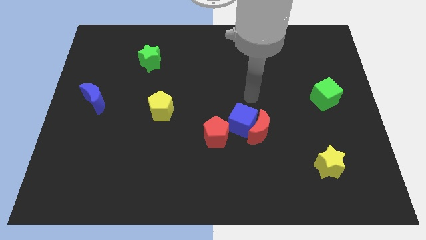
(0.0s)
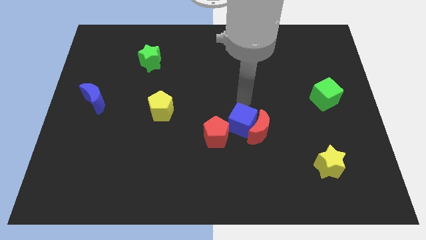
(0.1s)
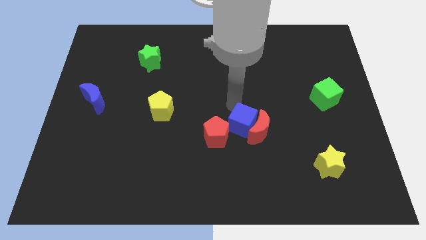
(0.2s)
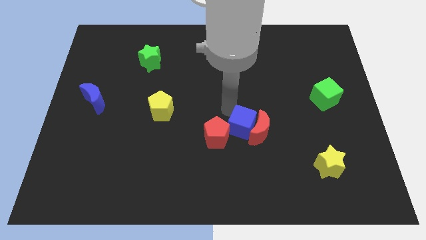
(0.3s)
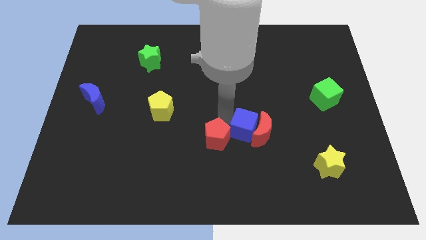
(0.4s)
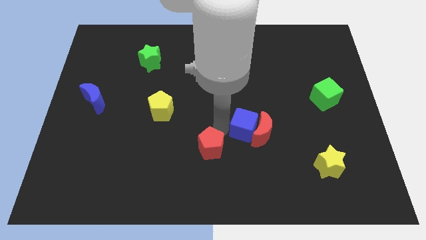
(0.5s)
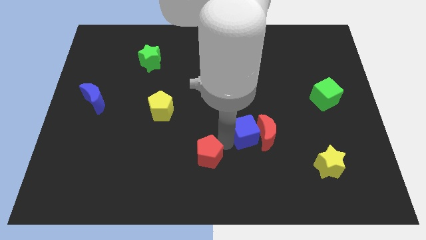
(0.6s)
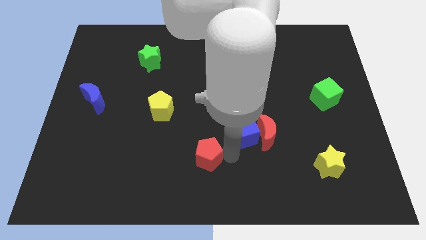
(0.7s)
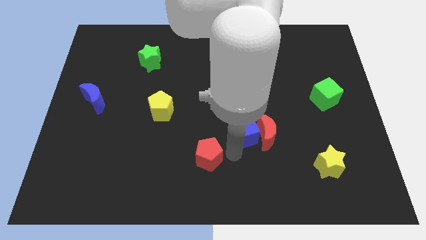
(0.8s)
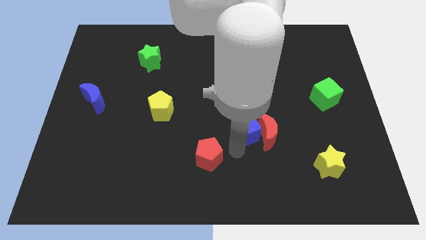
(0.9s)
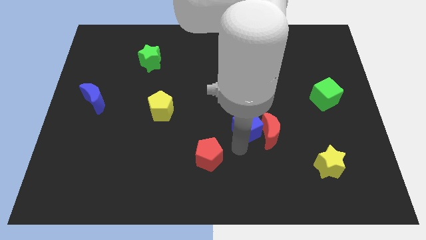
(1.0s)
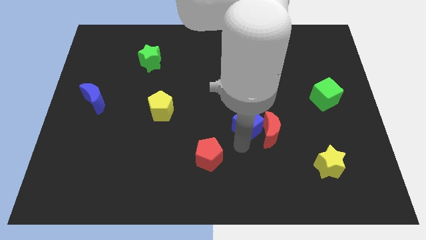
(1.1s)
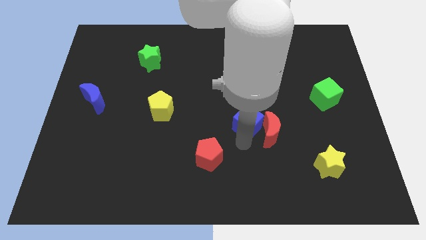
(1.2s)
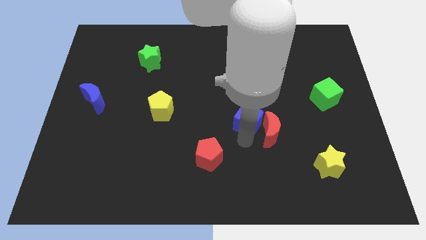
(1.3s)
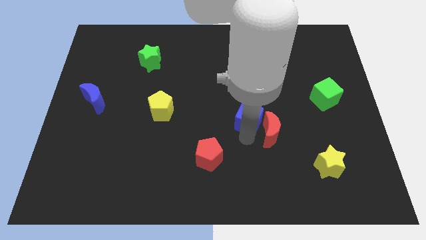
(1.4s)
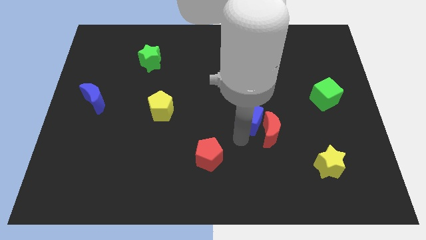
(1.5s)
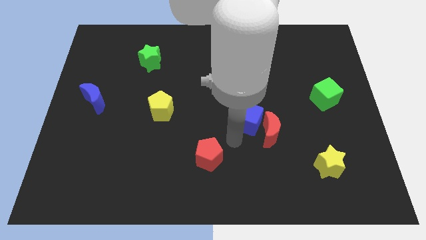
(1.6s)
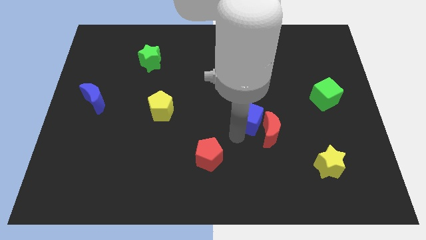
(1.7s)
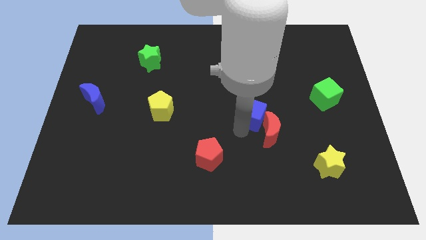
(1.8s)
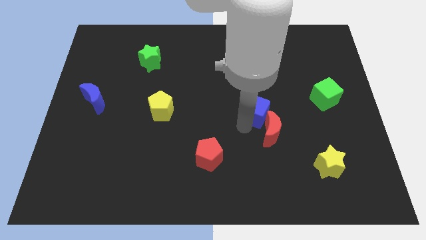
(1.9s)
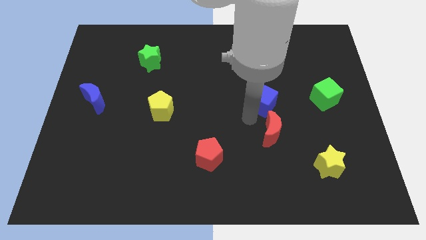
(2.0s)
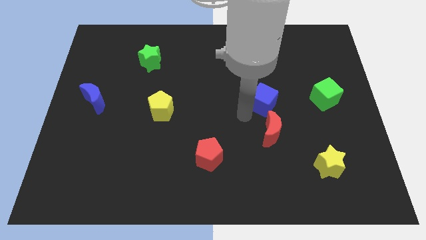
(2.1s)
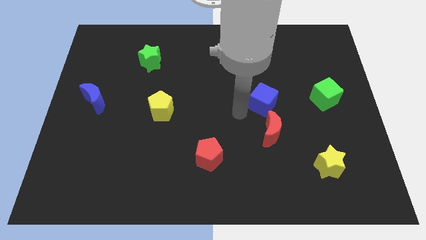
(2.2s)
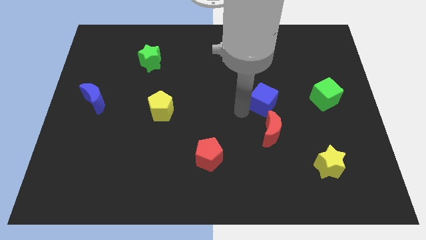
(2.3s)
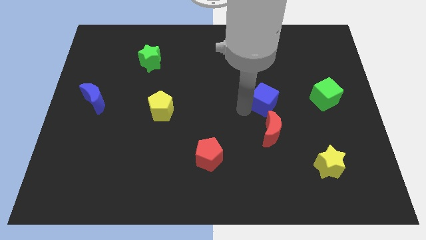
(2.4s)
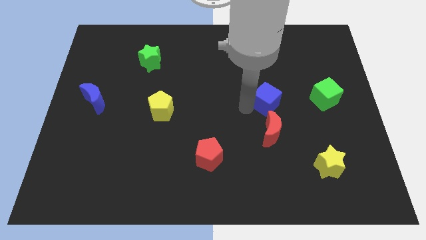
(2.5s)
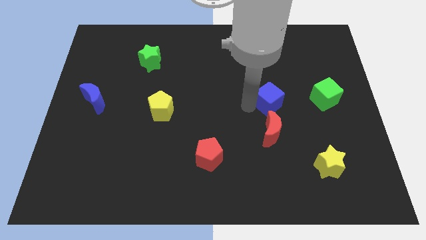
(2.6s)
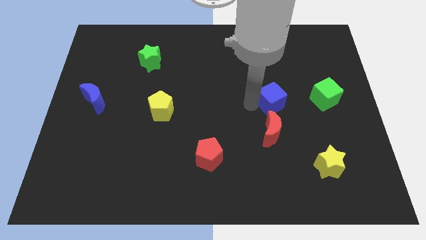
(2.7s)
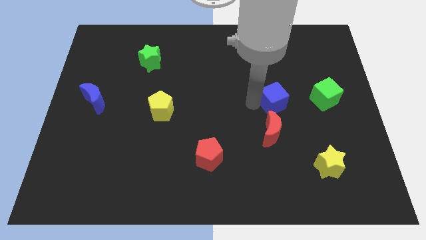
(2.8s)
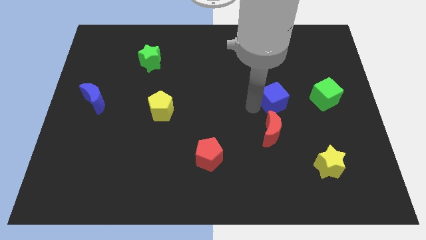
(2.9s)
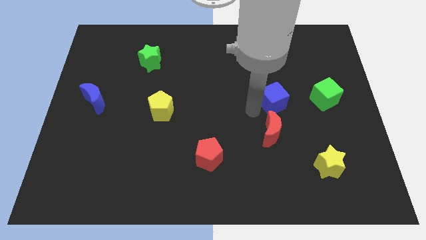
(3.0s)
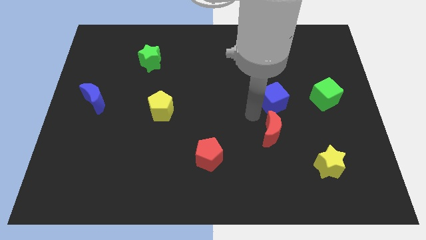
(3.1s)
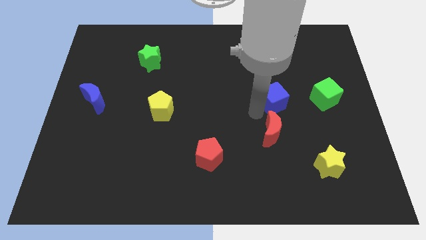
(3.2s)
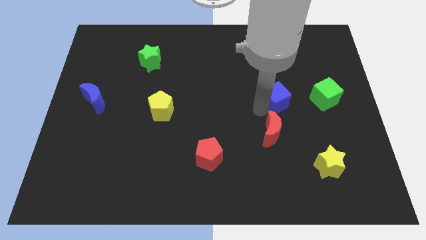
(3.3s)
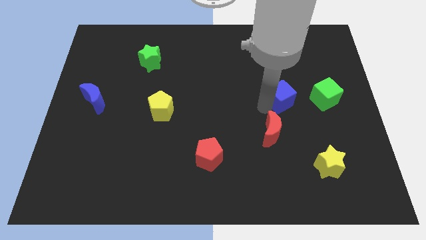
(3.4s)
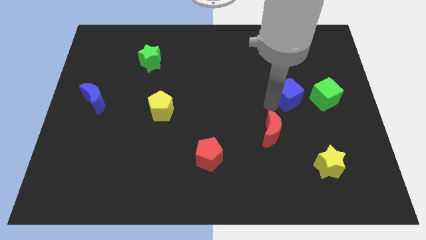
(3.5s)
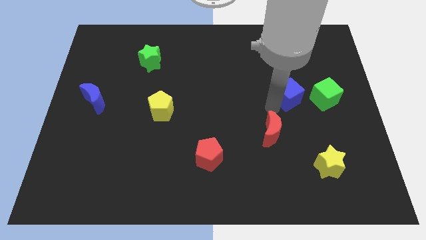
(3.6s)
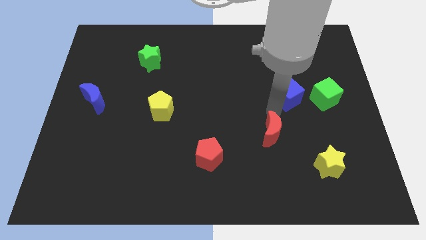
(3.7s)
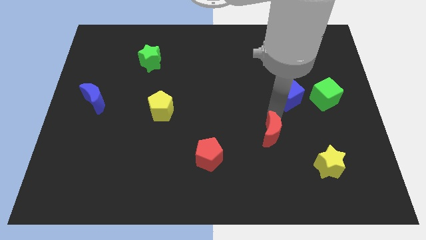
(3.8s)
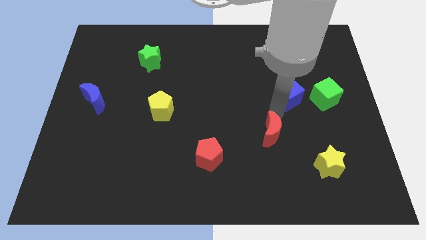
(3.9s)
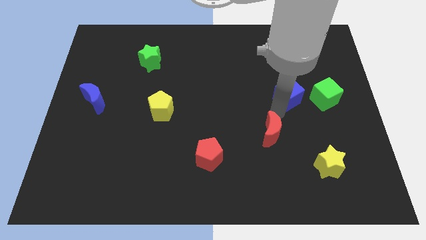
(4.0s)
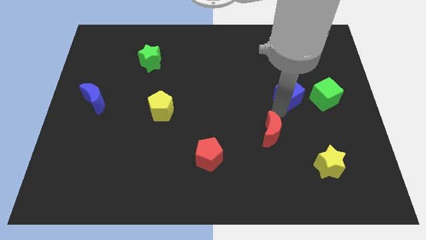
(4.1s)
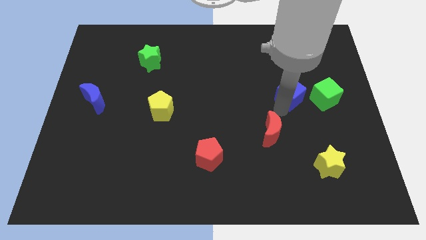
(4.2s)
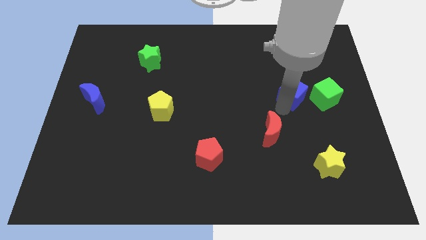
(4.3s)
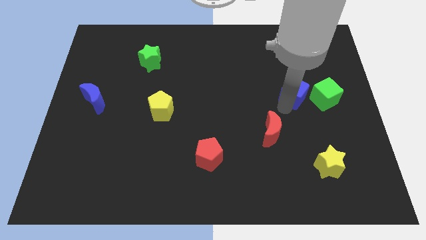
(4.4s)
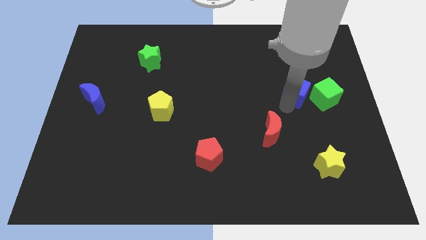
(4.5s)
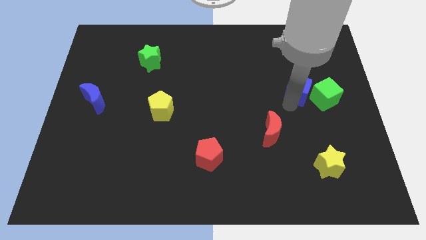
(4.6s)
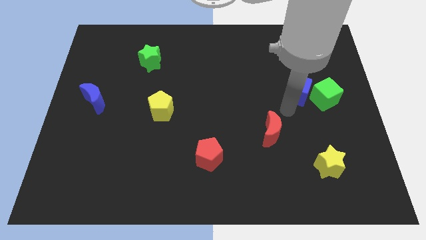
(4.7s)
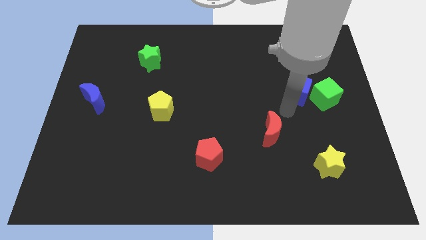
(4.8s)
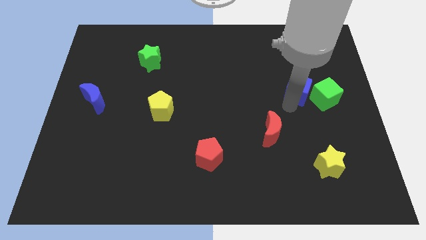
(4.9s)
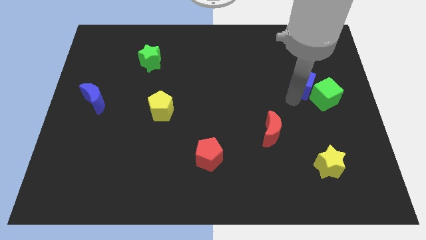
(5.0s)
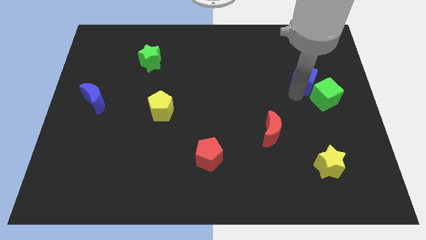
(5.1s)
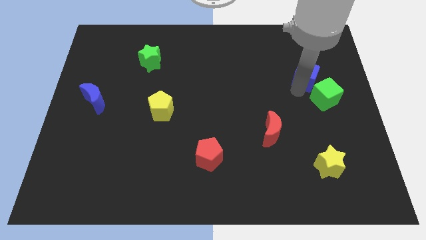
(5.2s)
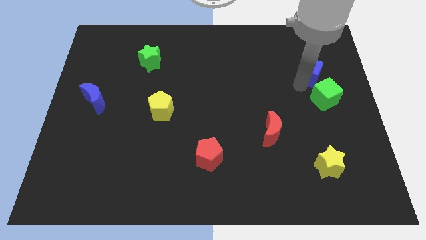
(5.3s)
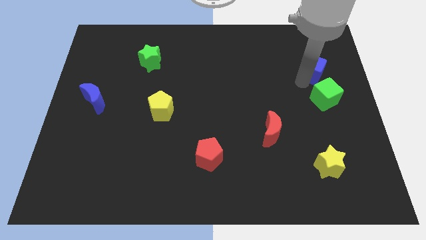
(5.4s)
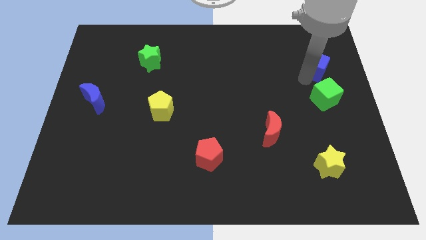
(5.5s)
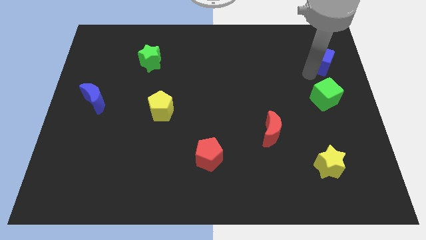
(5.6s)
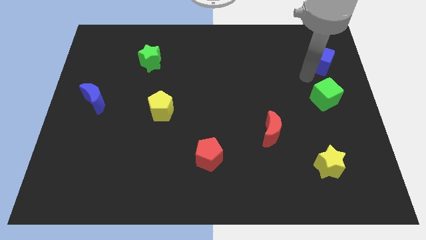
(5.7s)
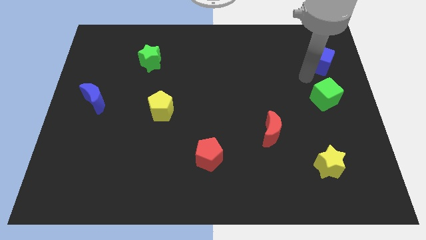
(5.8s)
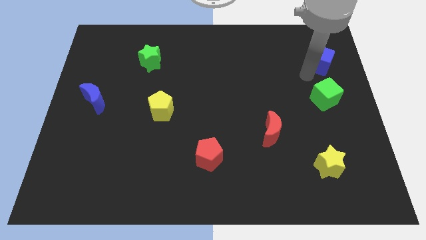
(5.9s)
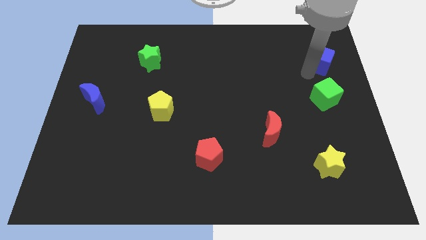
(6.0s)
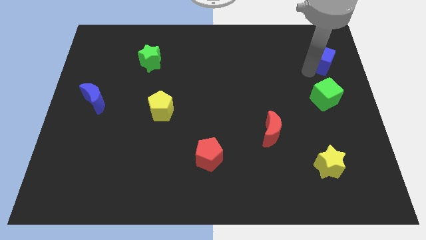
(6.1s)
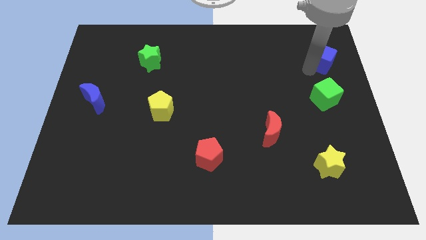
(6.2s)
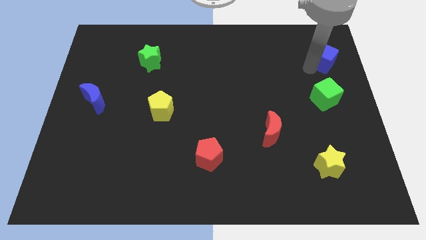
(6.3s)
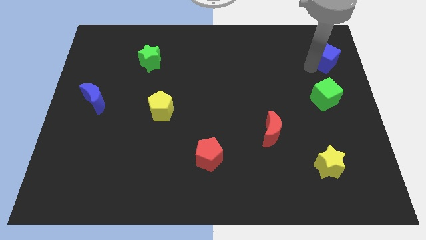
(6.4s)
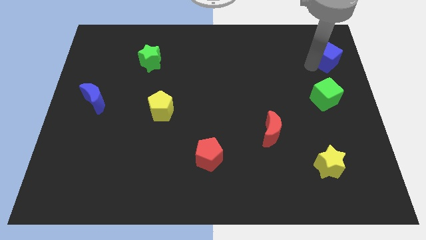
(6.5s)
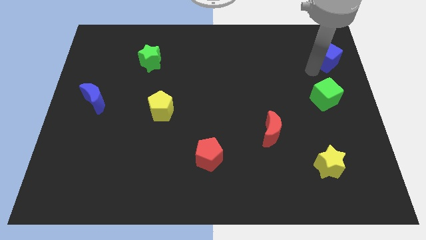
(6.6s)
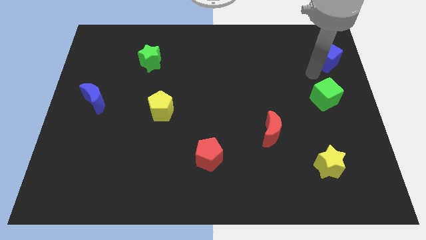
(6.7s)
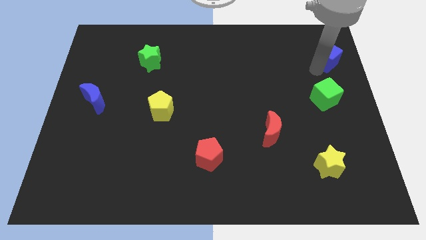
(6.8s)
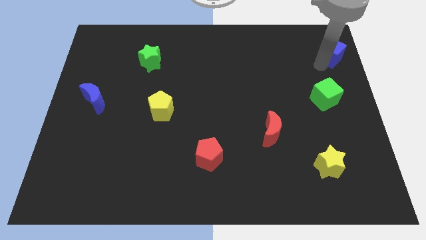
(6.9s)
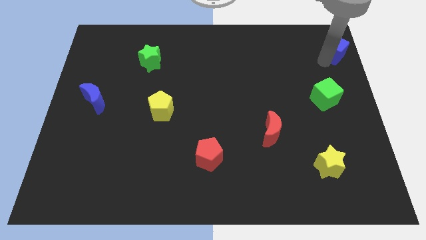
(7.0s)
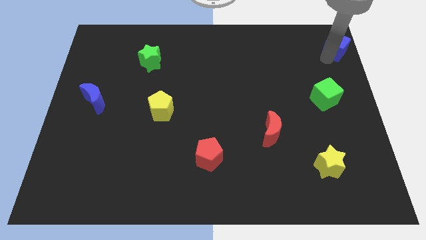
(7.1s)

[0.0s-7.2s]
put the blue cube to the upper right corner

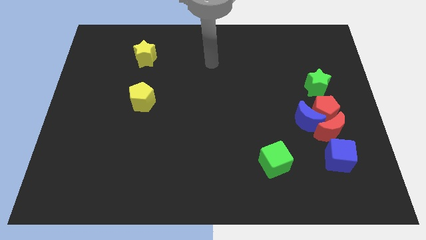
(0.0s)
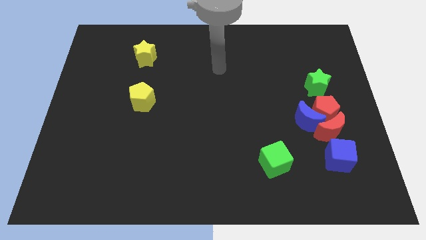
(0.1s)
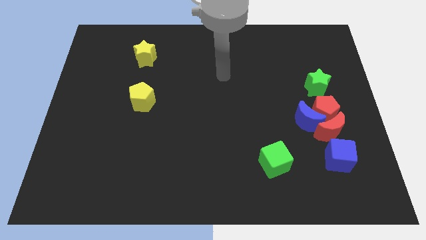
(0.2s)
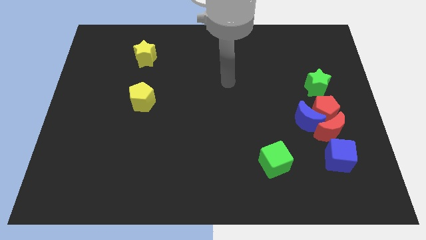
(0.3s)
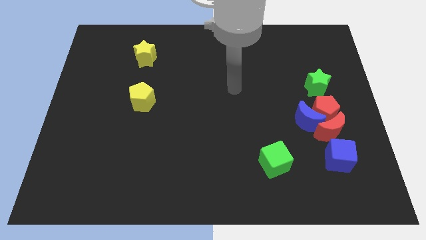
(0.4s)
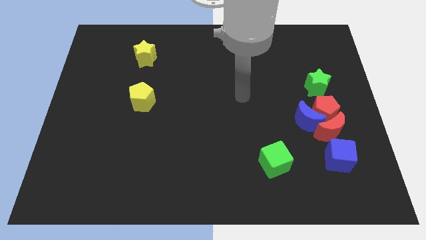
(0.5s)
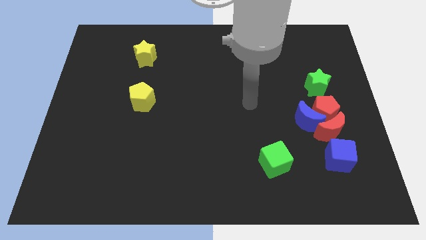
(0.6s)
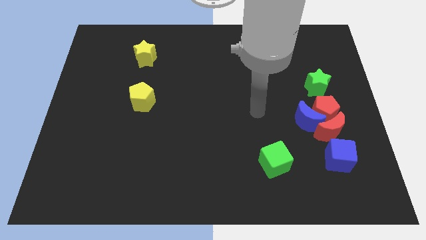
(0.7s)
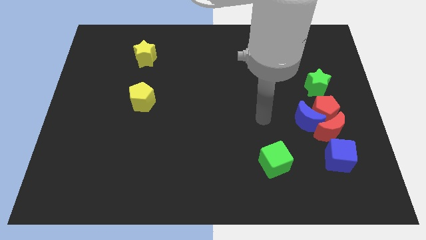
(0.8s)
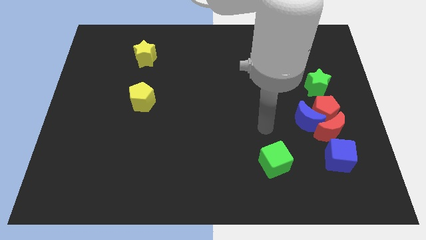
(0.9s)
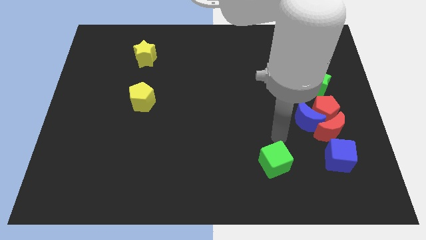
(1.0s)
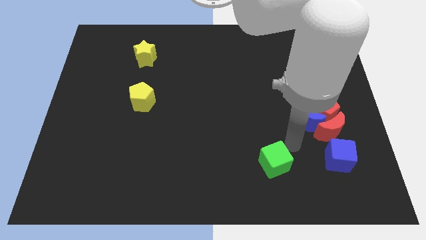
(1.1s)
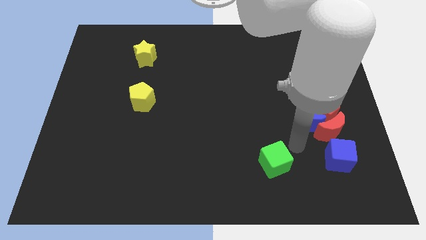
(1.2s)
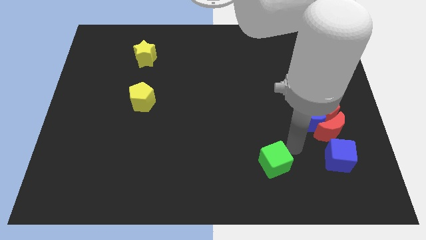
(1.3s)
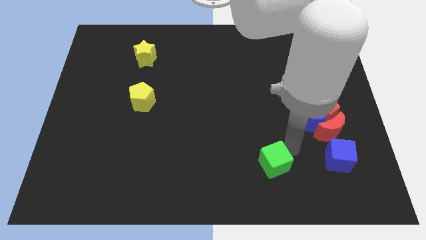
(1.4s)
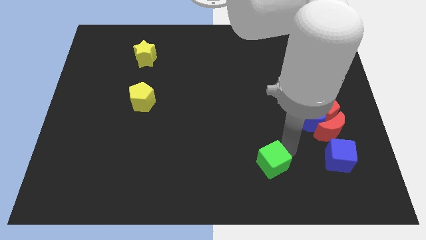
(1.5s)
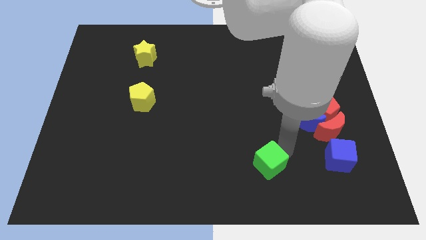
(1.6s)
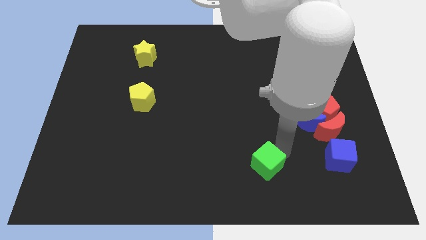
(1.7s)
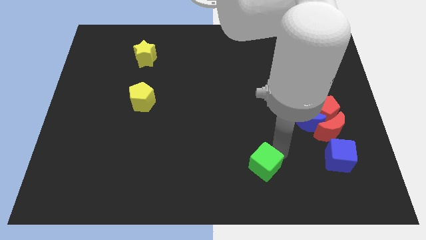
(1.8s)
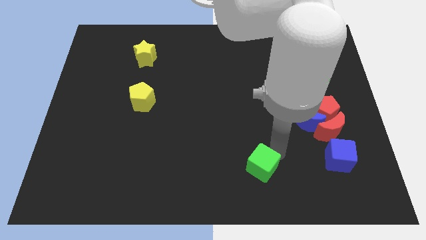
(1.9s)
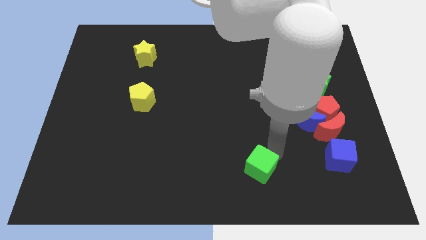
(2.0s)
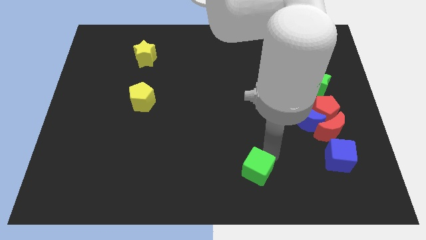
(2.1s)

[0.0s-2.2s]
push the green cube to the bottom side
